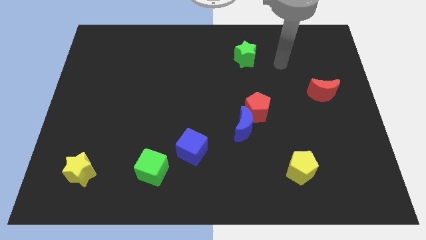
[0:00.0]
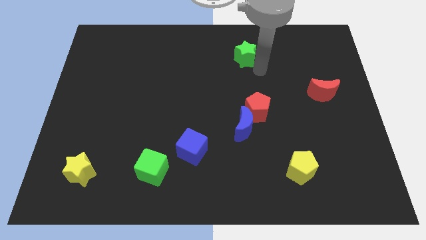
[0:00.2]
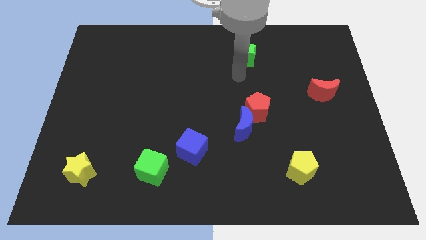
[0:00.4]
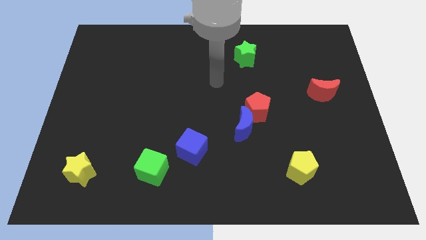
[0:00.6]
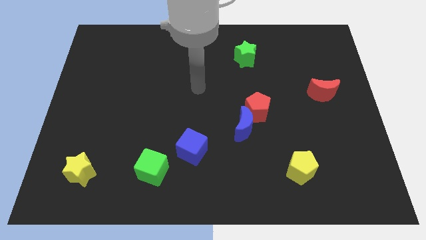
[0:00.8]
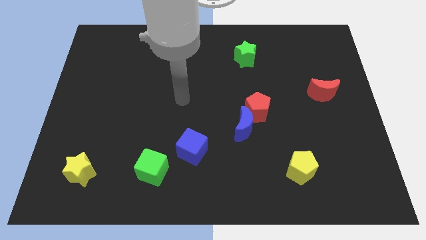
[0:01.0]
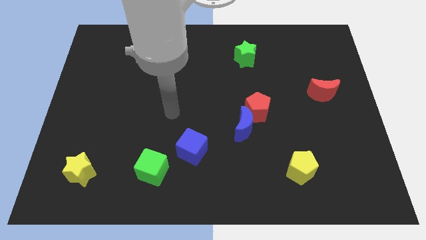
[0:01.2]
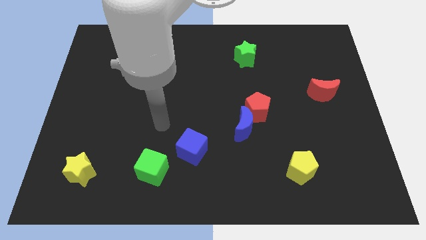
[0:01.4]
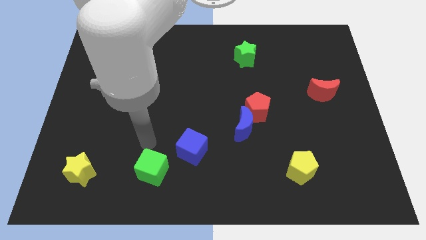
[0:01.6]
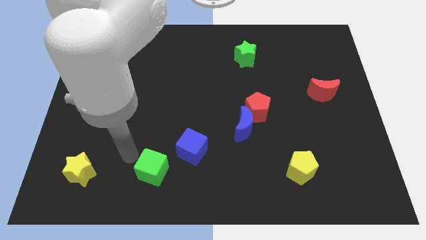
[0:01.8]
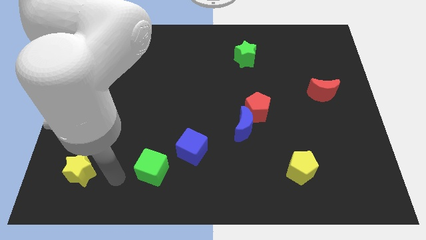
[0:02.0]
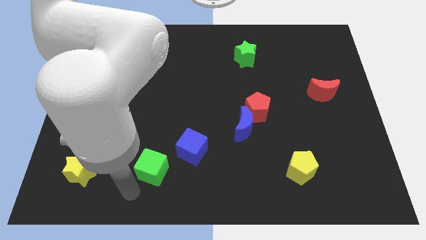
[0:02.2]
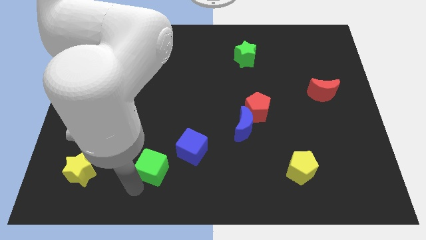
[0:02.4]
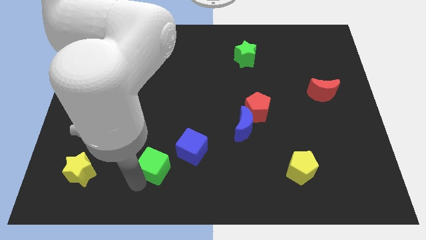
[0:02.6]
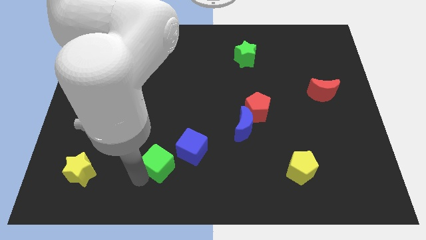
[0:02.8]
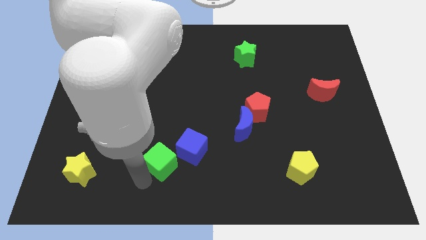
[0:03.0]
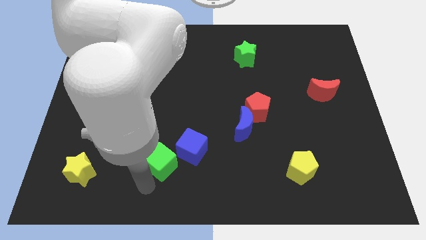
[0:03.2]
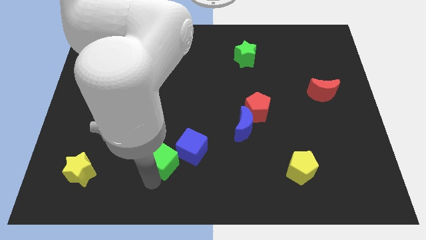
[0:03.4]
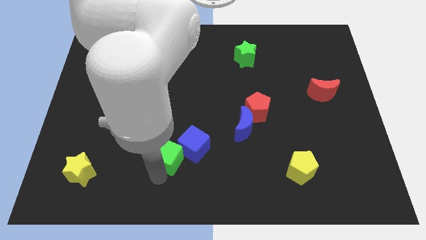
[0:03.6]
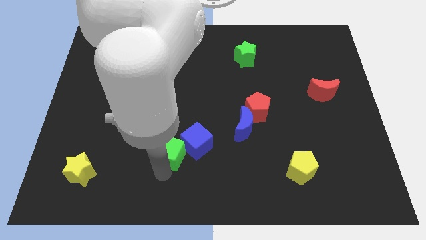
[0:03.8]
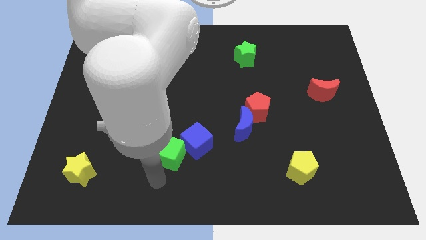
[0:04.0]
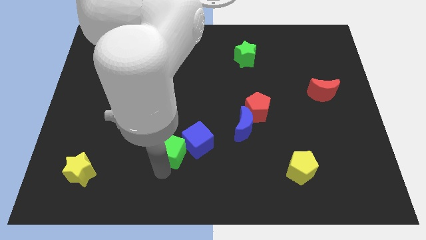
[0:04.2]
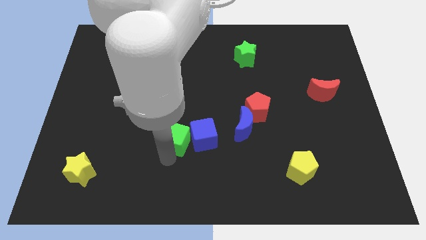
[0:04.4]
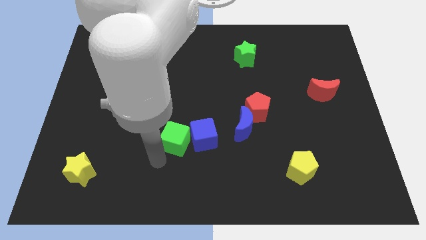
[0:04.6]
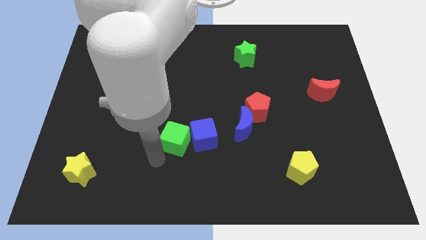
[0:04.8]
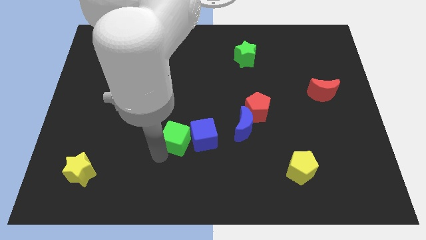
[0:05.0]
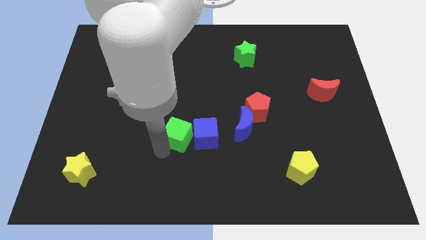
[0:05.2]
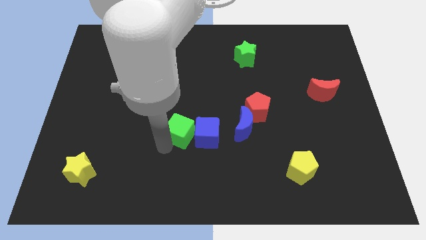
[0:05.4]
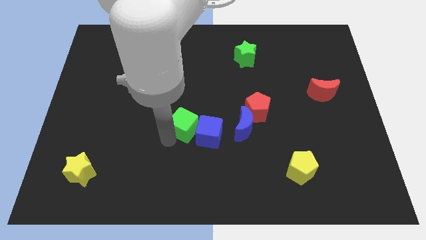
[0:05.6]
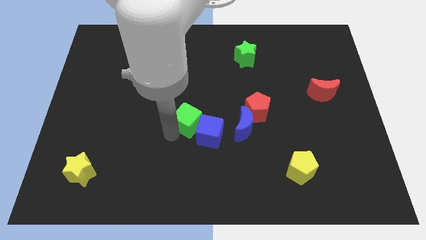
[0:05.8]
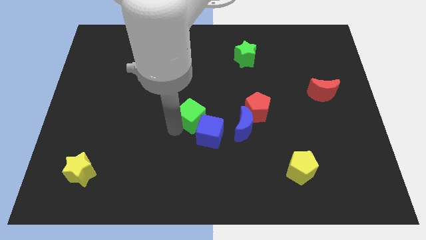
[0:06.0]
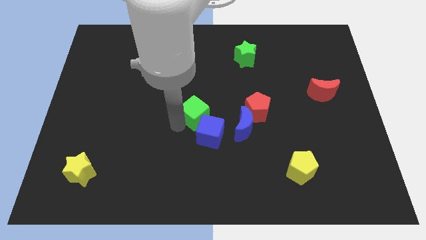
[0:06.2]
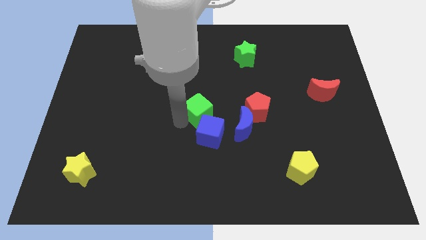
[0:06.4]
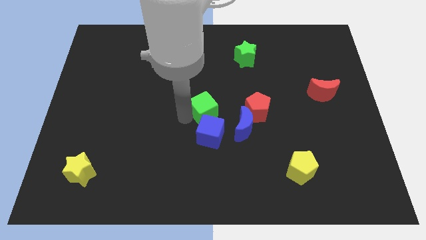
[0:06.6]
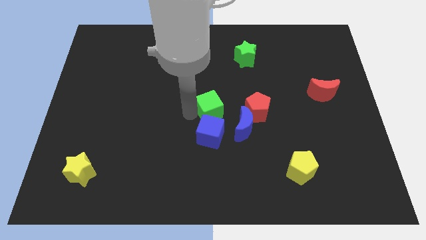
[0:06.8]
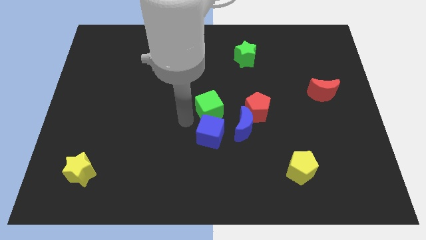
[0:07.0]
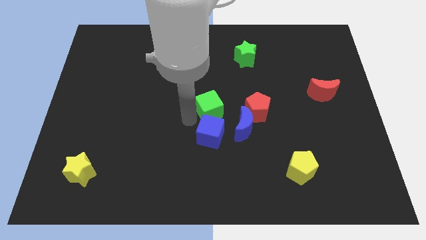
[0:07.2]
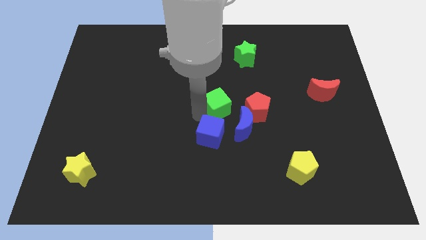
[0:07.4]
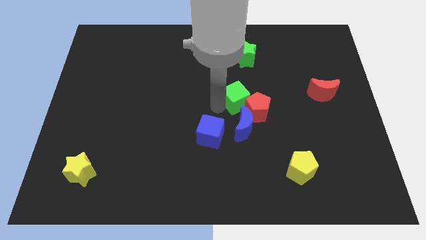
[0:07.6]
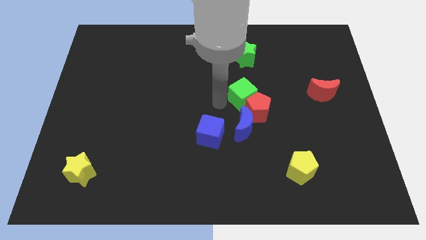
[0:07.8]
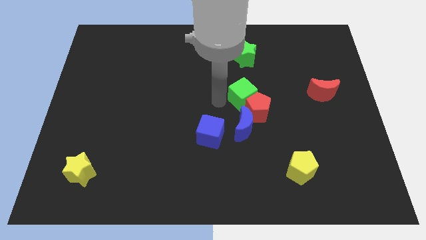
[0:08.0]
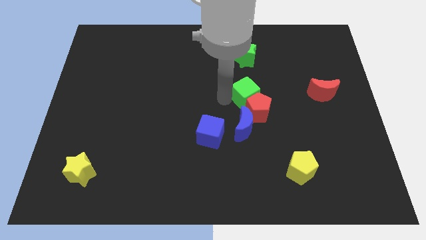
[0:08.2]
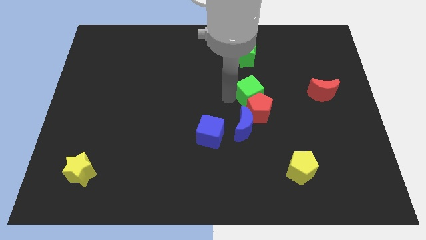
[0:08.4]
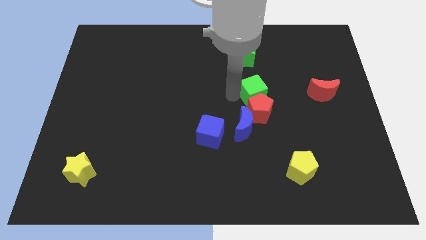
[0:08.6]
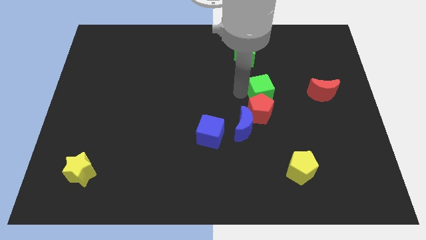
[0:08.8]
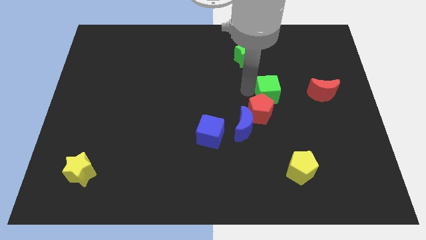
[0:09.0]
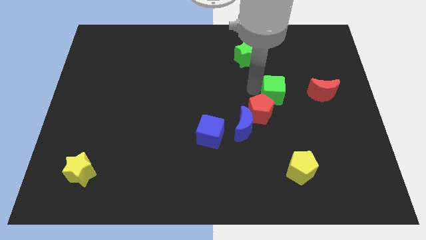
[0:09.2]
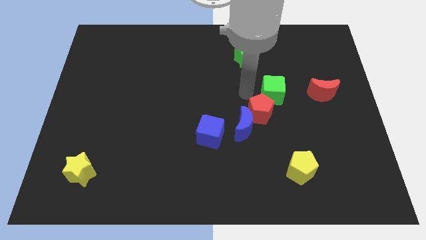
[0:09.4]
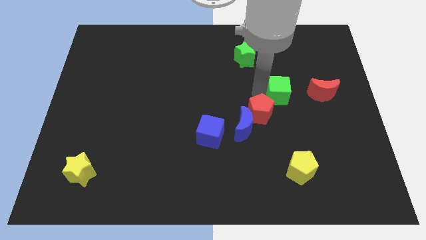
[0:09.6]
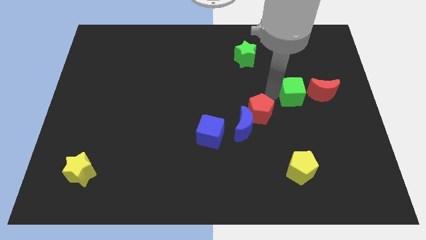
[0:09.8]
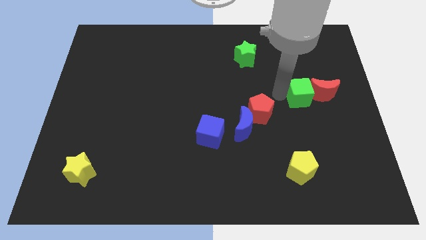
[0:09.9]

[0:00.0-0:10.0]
move the green cube towards the red moon

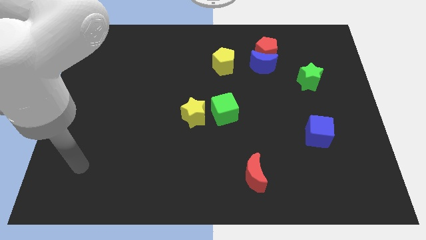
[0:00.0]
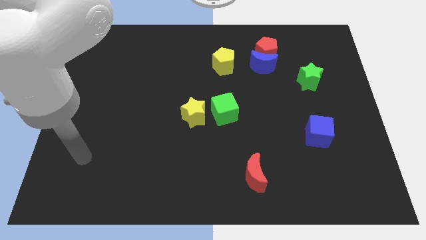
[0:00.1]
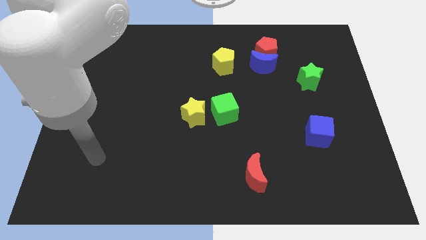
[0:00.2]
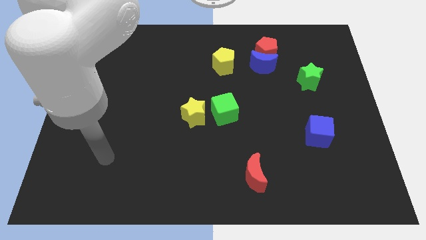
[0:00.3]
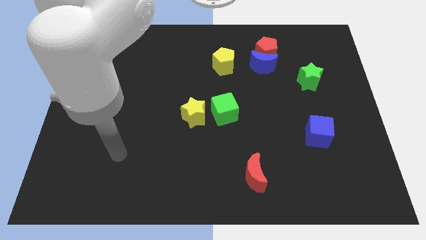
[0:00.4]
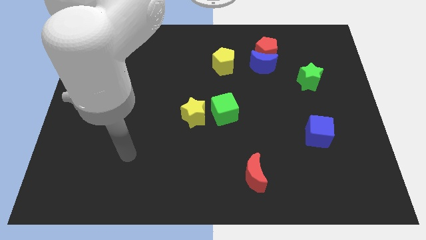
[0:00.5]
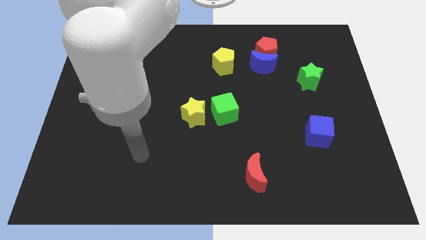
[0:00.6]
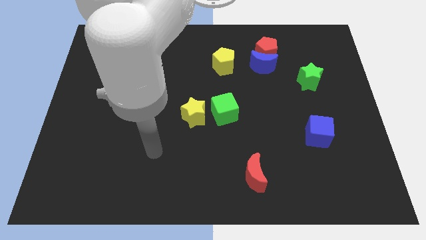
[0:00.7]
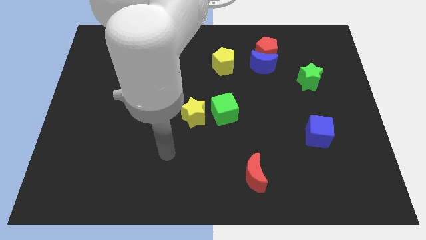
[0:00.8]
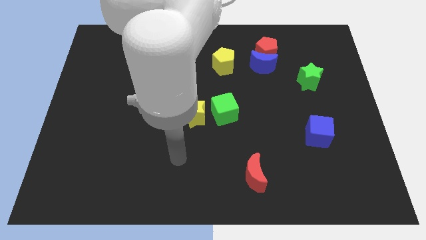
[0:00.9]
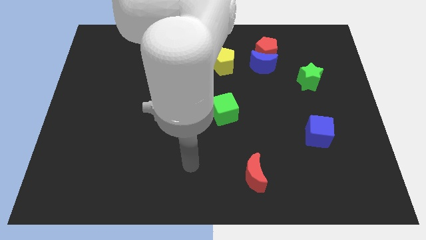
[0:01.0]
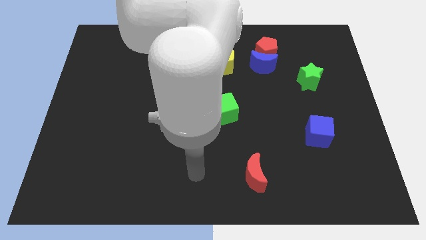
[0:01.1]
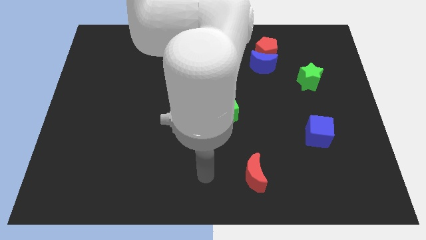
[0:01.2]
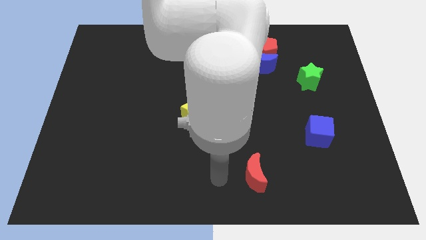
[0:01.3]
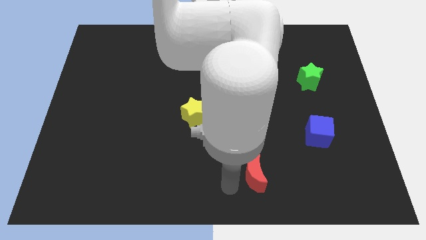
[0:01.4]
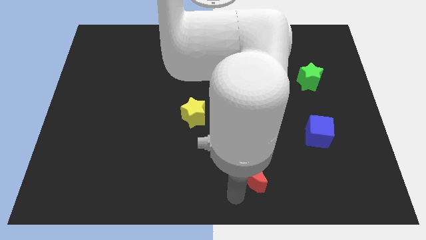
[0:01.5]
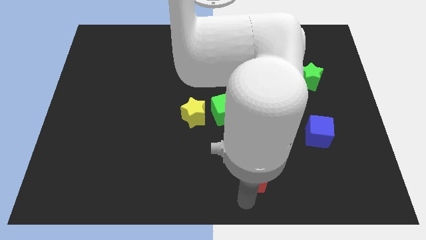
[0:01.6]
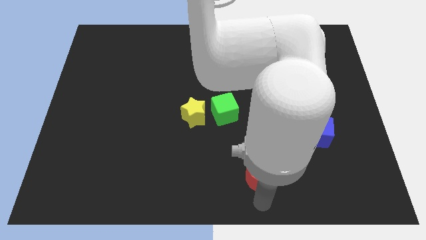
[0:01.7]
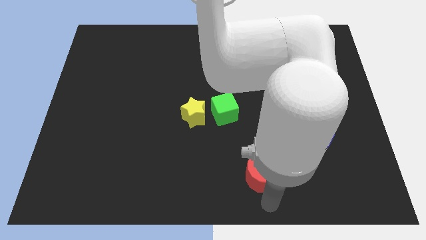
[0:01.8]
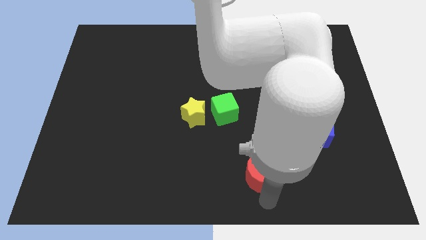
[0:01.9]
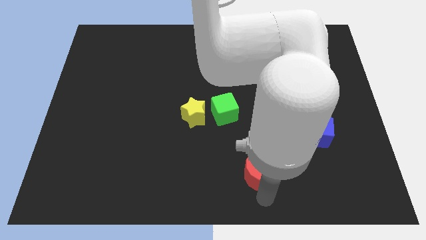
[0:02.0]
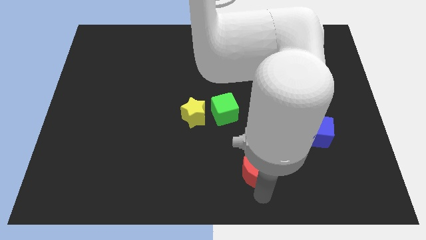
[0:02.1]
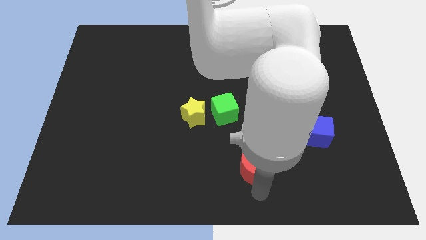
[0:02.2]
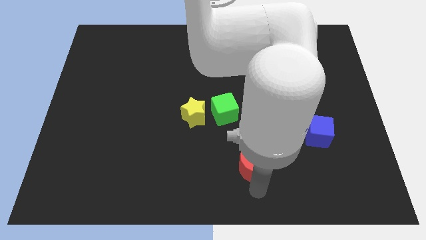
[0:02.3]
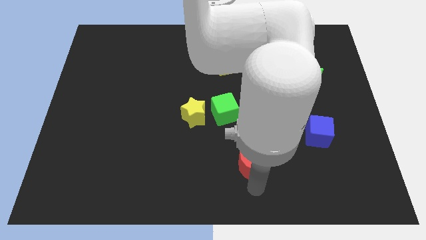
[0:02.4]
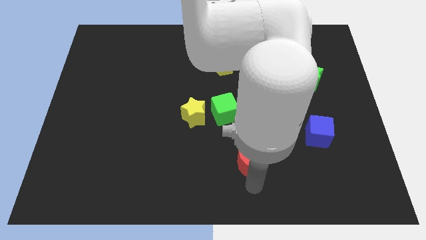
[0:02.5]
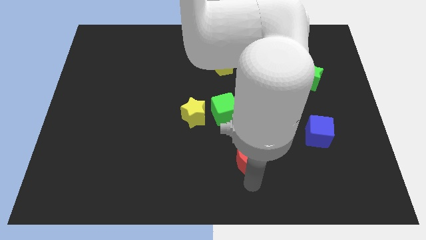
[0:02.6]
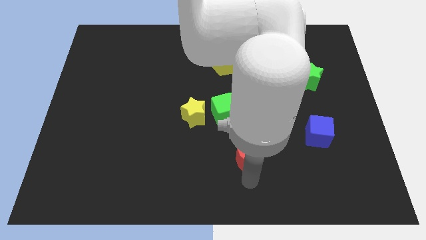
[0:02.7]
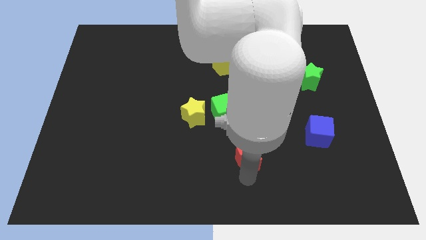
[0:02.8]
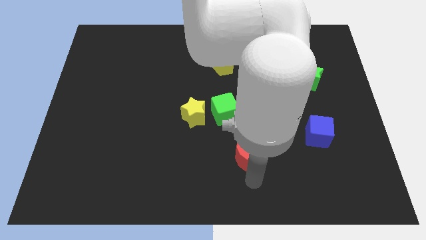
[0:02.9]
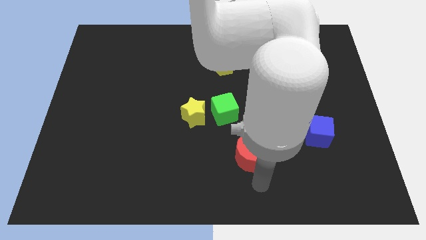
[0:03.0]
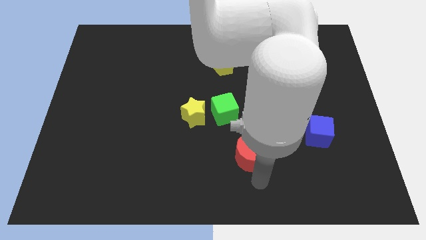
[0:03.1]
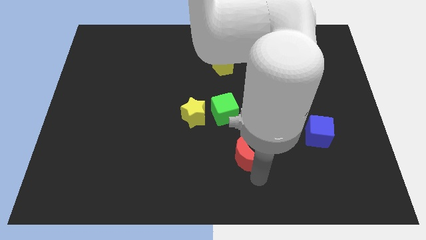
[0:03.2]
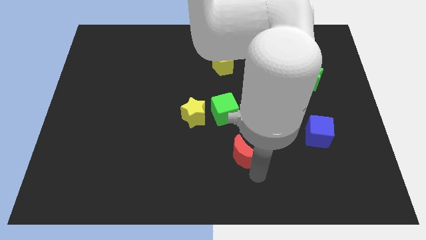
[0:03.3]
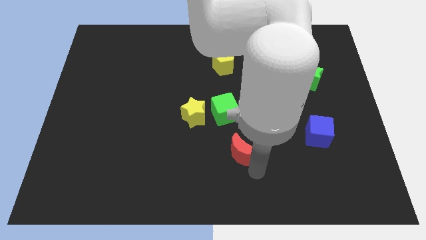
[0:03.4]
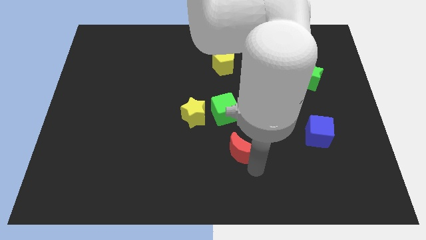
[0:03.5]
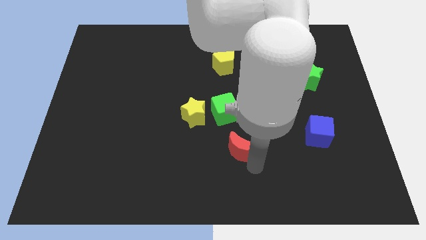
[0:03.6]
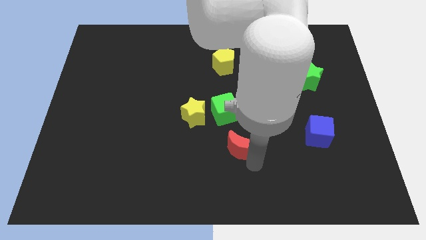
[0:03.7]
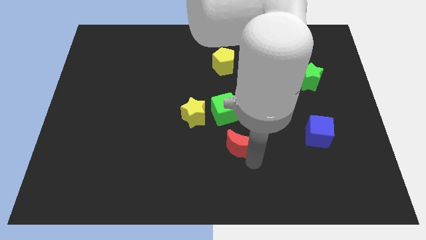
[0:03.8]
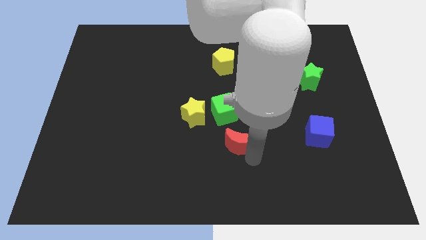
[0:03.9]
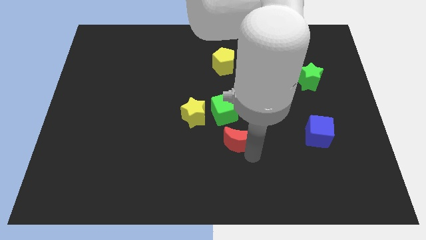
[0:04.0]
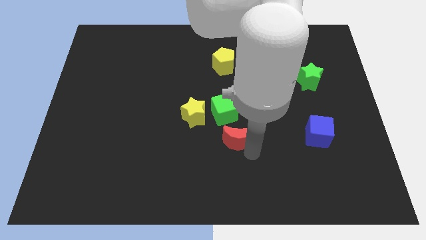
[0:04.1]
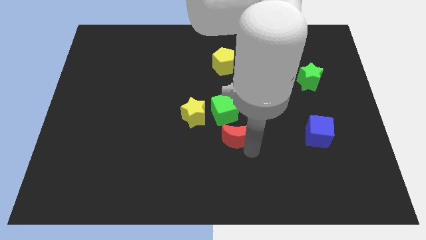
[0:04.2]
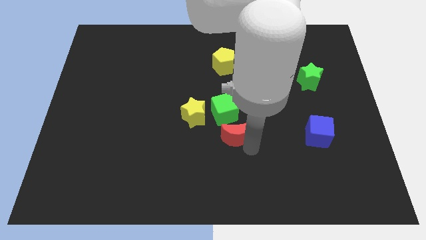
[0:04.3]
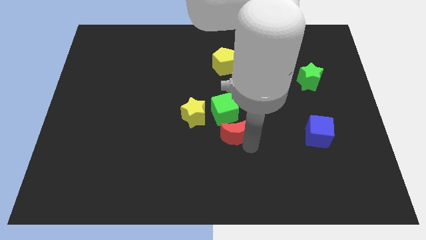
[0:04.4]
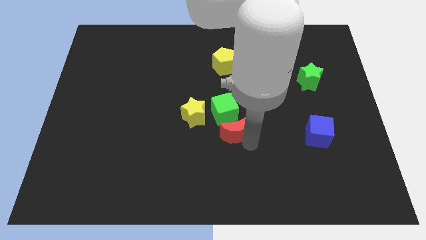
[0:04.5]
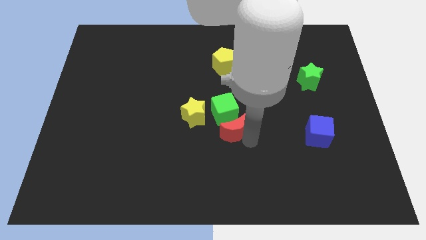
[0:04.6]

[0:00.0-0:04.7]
push the red moon close to the green cube
